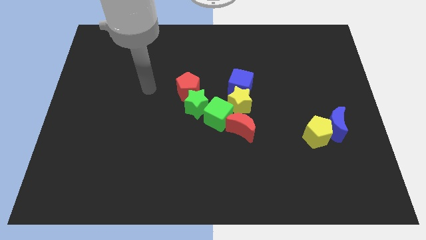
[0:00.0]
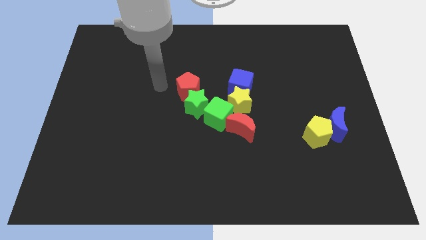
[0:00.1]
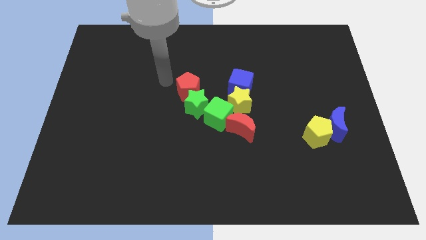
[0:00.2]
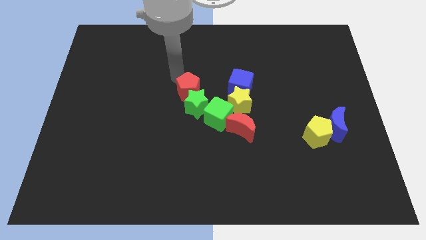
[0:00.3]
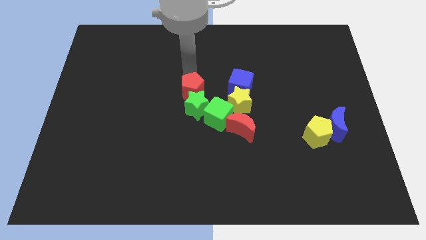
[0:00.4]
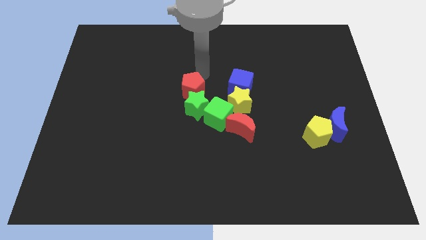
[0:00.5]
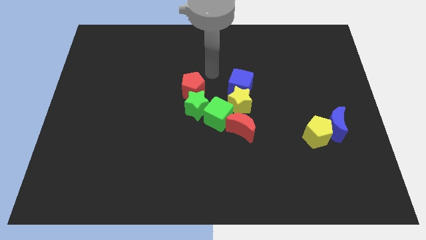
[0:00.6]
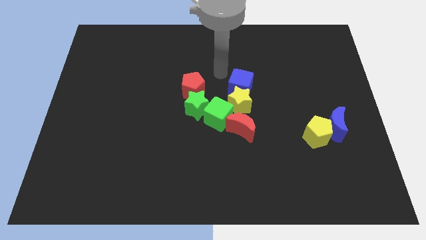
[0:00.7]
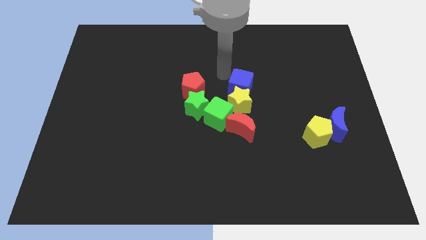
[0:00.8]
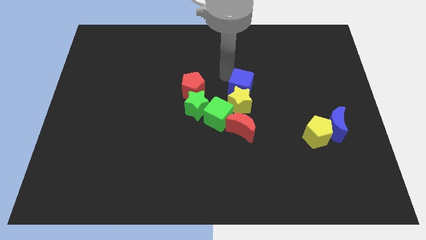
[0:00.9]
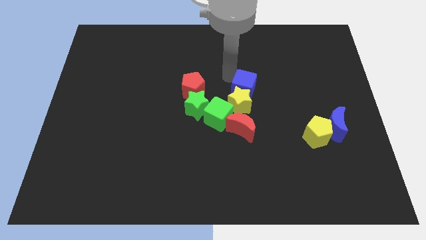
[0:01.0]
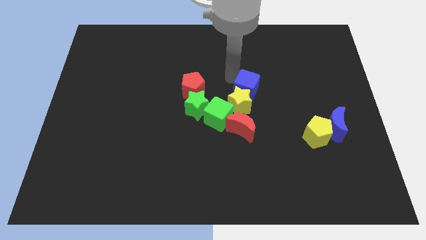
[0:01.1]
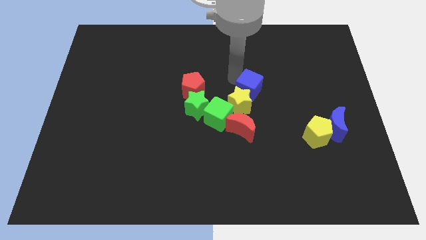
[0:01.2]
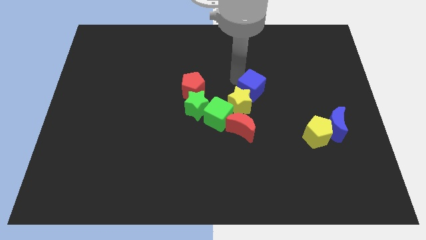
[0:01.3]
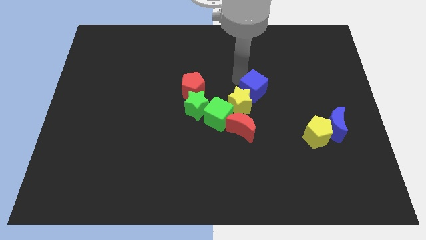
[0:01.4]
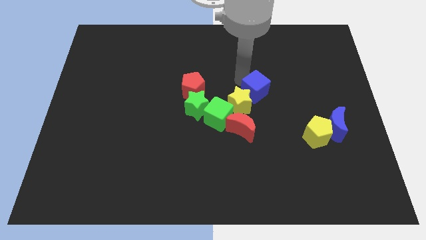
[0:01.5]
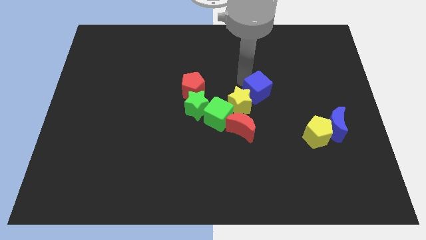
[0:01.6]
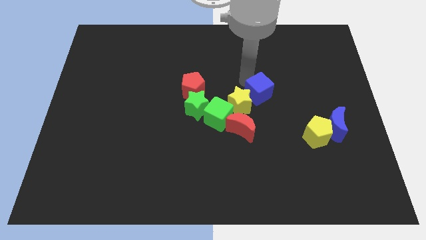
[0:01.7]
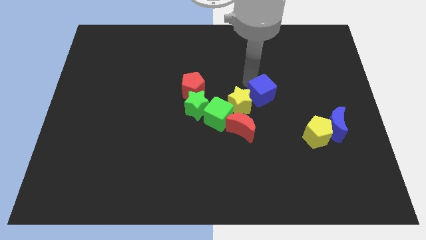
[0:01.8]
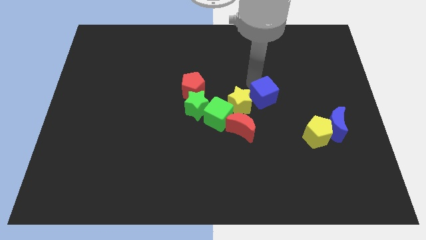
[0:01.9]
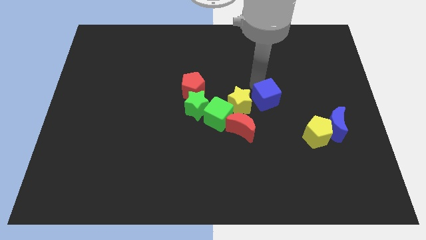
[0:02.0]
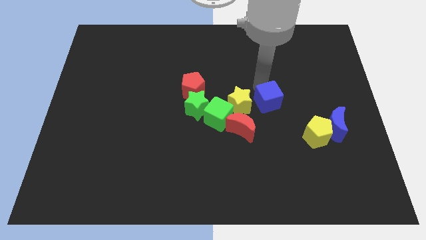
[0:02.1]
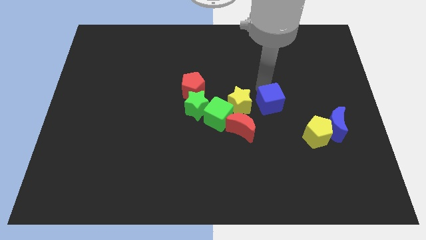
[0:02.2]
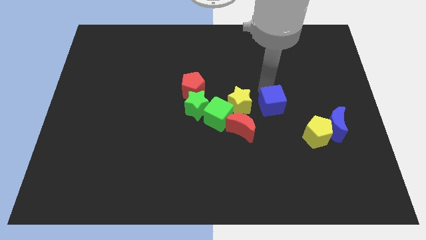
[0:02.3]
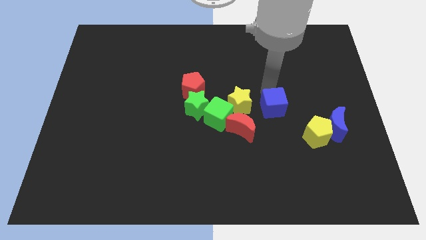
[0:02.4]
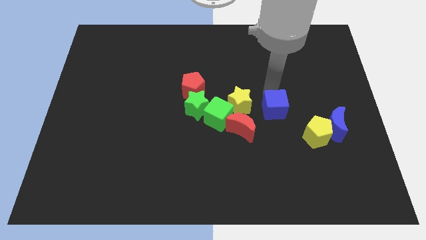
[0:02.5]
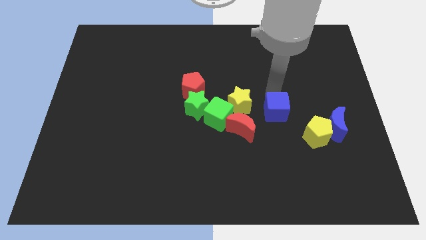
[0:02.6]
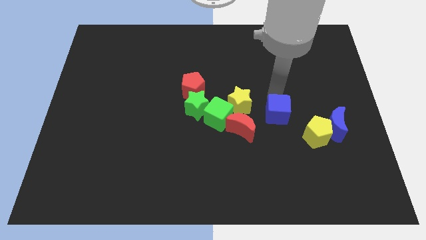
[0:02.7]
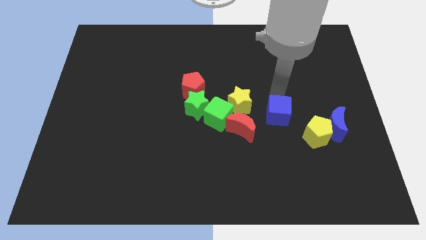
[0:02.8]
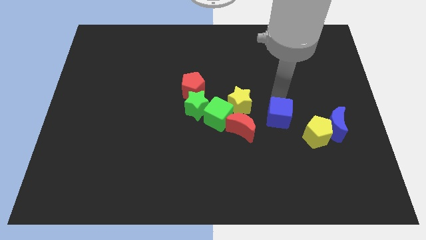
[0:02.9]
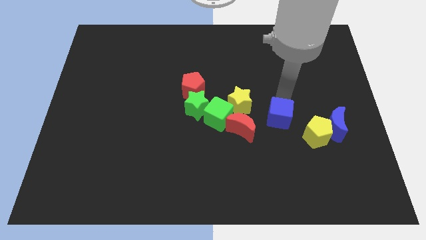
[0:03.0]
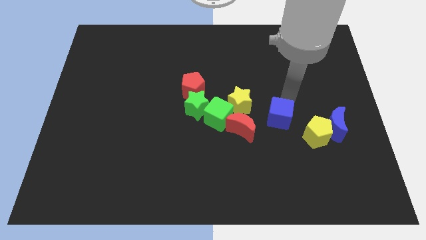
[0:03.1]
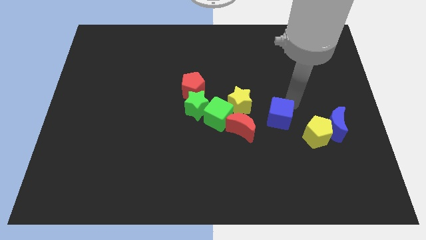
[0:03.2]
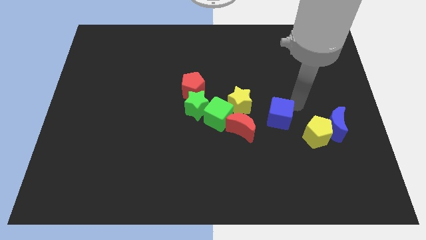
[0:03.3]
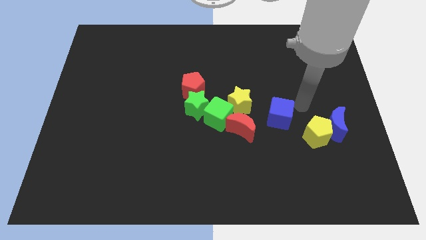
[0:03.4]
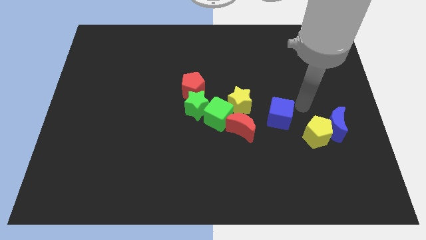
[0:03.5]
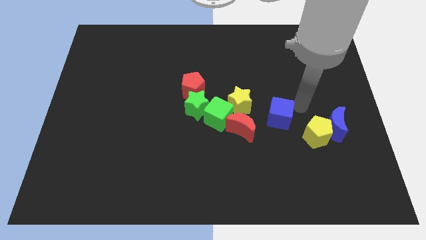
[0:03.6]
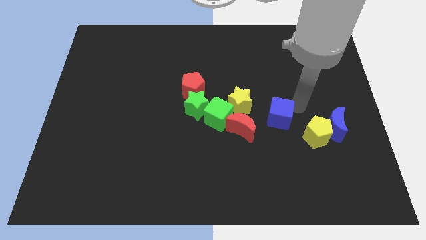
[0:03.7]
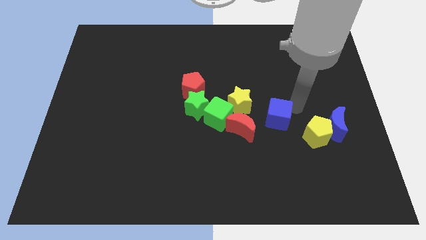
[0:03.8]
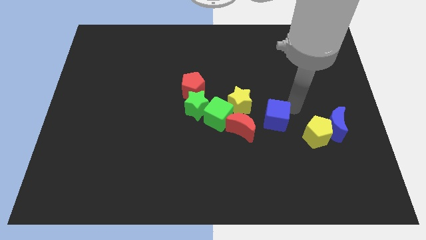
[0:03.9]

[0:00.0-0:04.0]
slightly move the blue cube down

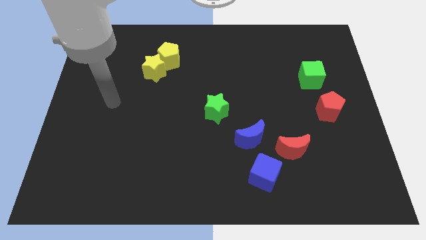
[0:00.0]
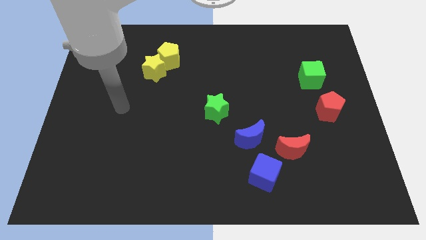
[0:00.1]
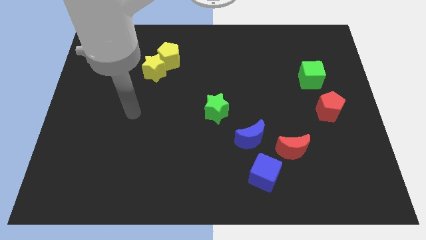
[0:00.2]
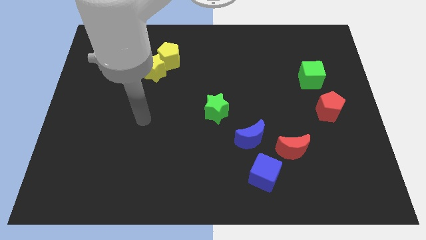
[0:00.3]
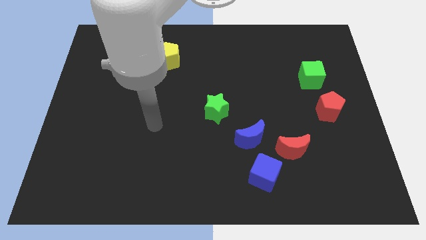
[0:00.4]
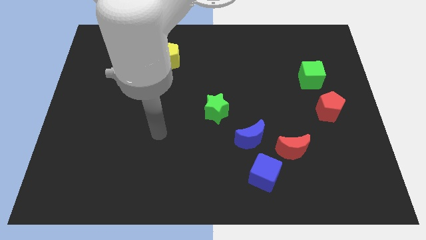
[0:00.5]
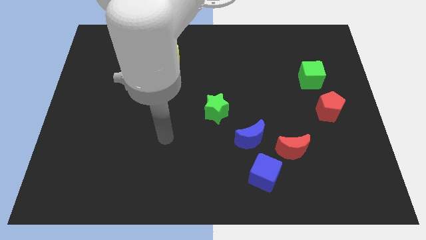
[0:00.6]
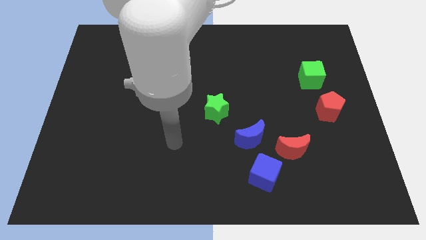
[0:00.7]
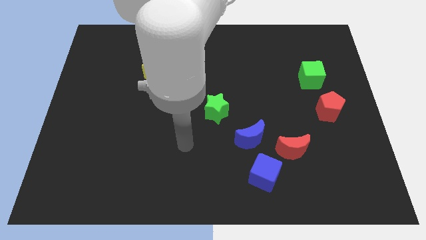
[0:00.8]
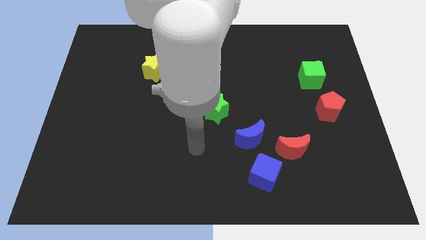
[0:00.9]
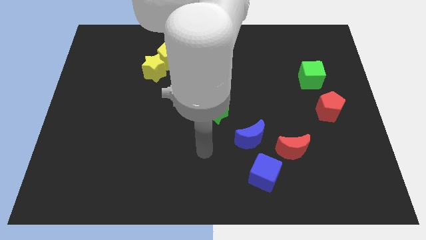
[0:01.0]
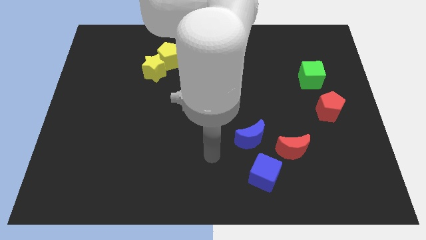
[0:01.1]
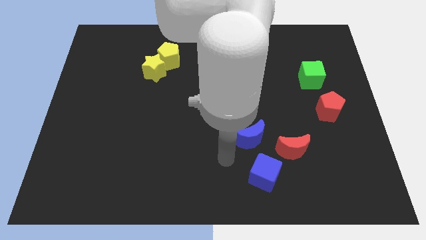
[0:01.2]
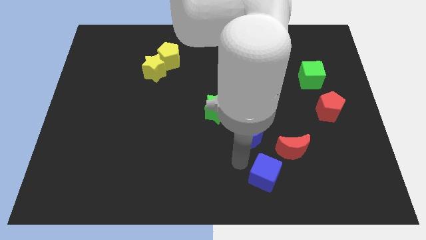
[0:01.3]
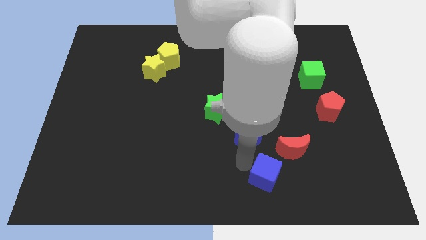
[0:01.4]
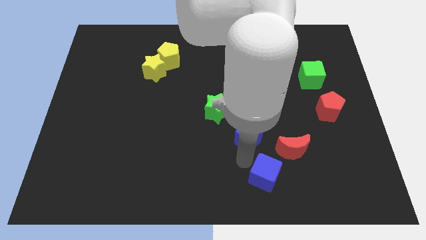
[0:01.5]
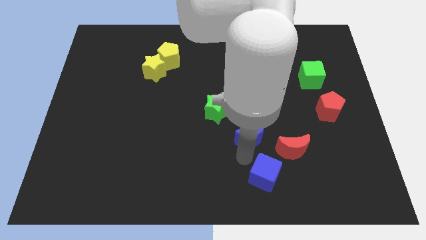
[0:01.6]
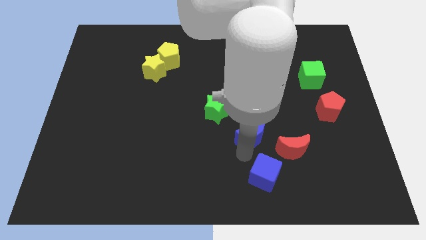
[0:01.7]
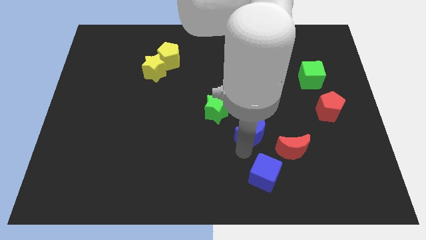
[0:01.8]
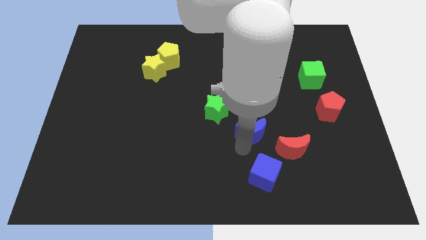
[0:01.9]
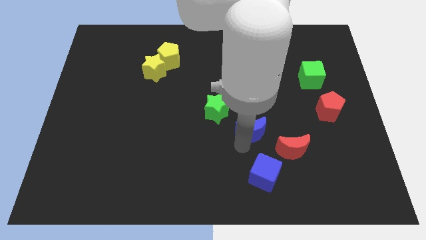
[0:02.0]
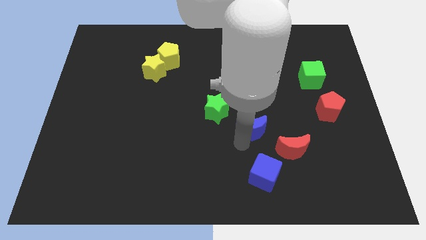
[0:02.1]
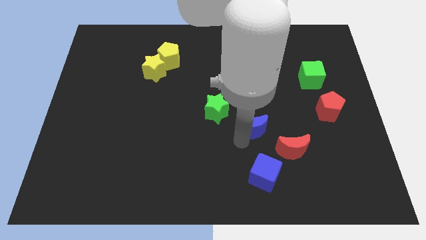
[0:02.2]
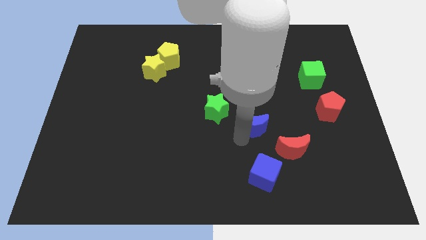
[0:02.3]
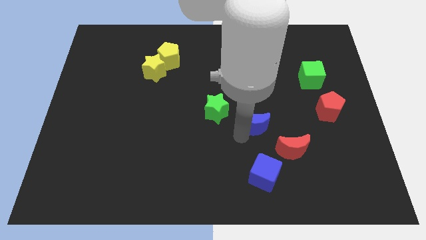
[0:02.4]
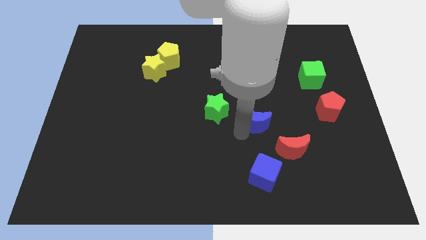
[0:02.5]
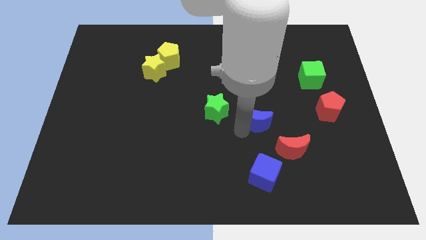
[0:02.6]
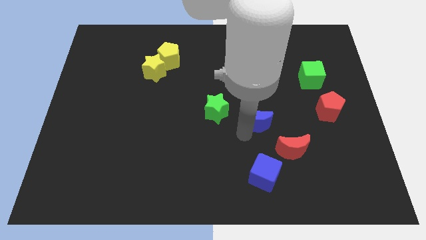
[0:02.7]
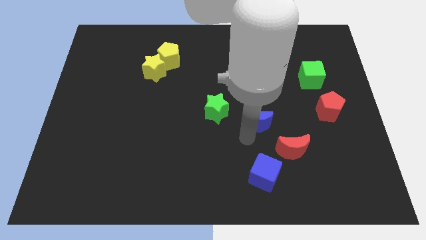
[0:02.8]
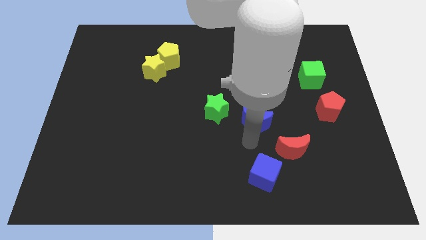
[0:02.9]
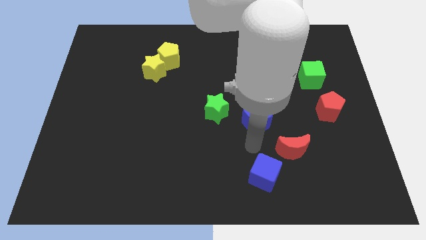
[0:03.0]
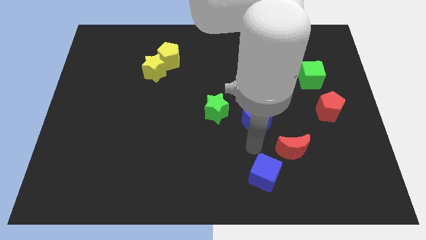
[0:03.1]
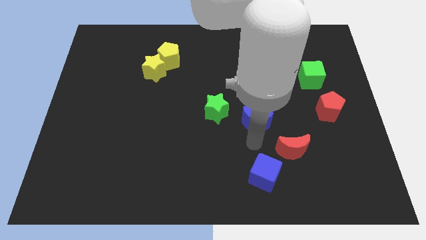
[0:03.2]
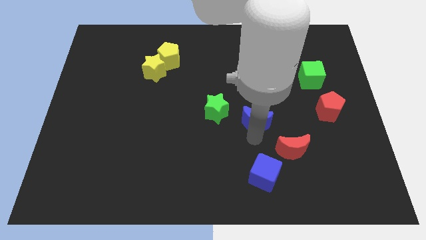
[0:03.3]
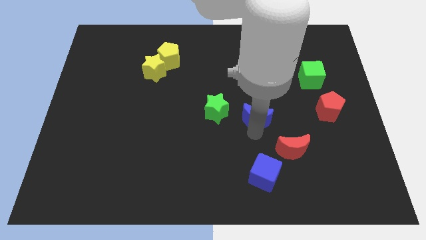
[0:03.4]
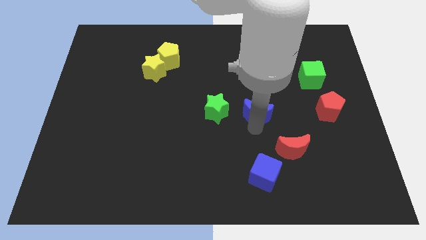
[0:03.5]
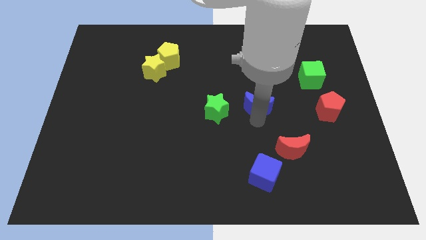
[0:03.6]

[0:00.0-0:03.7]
push the blue moon a little bit up

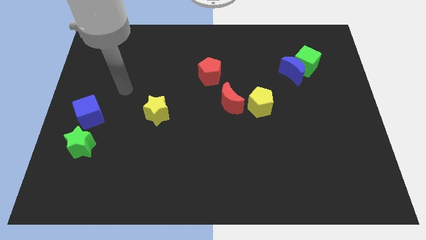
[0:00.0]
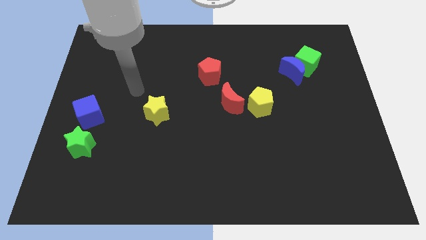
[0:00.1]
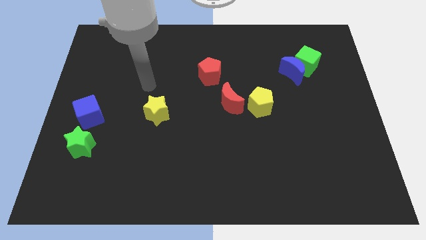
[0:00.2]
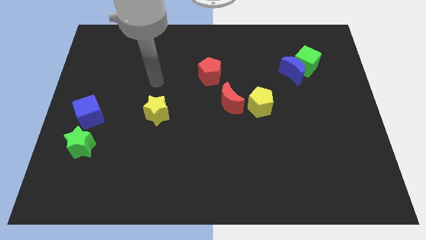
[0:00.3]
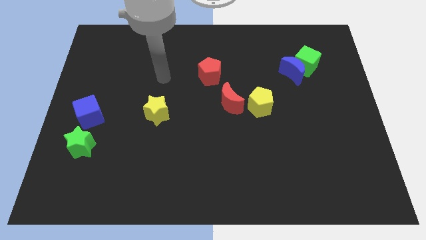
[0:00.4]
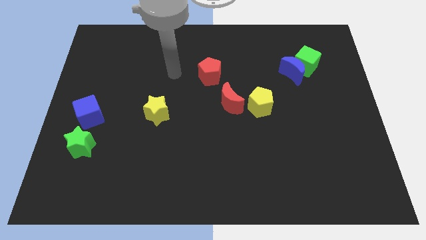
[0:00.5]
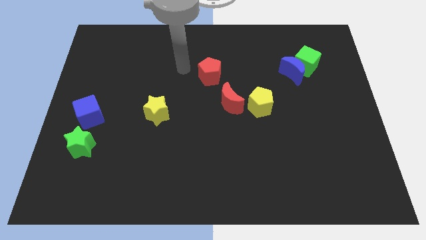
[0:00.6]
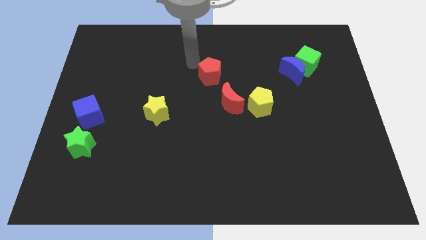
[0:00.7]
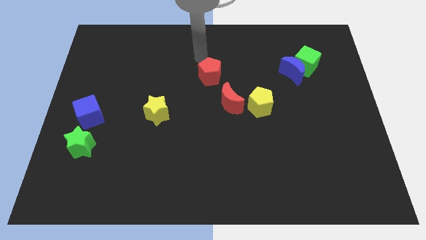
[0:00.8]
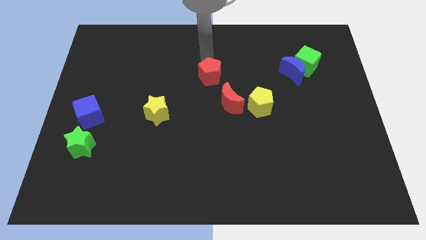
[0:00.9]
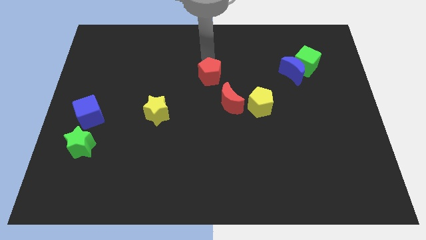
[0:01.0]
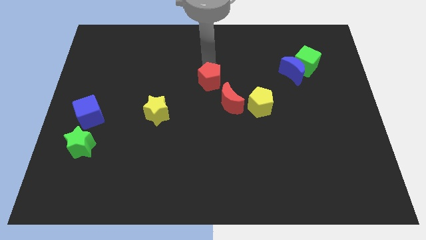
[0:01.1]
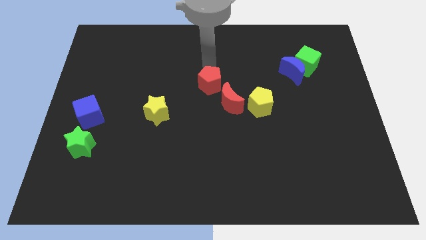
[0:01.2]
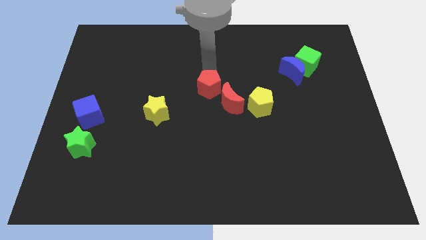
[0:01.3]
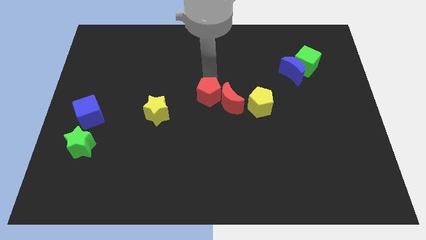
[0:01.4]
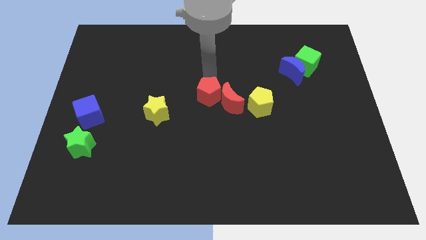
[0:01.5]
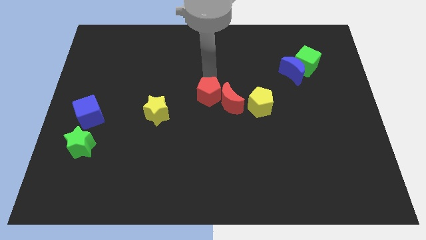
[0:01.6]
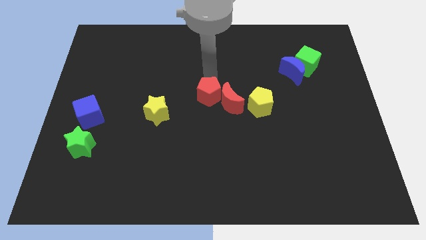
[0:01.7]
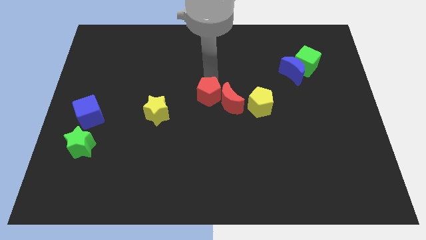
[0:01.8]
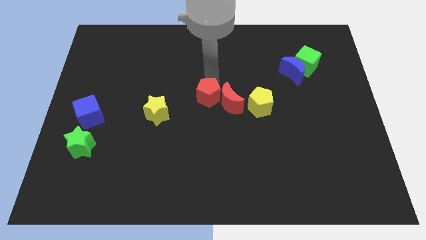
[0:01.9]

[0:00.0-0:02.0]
slightly slide the red pentagon down
